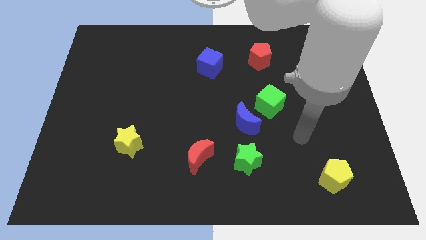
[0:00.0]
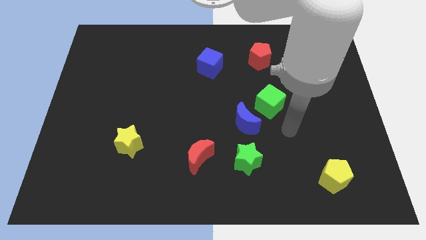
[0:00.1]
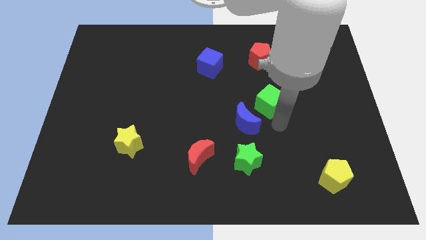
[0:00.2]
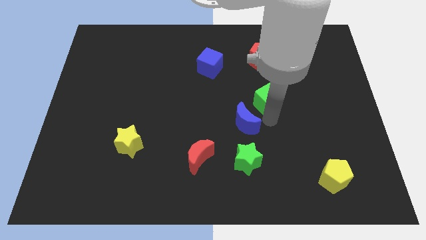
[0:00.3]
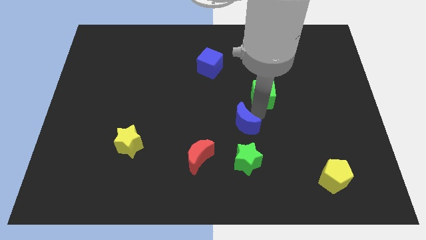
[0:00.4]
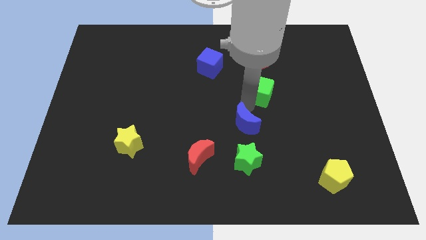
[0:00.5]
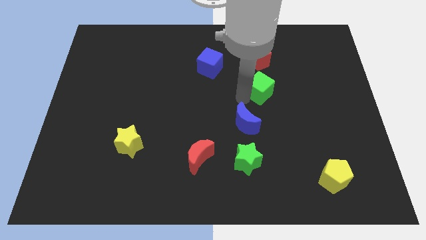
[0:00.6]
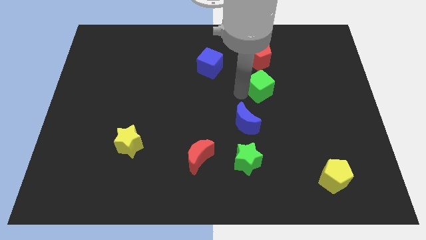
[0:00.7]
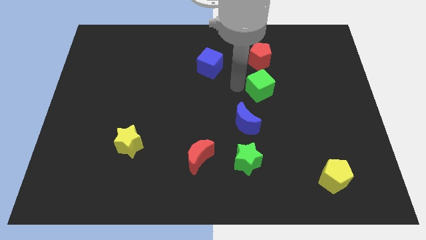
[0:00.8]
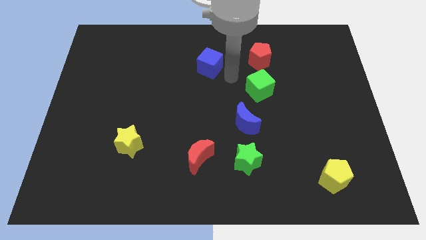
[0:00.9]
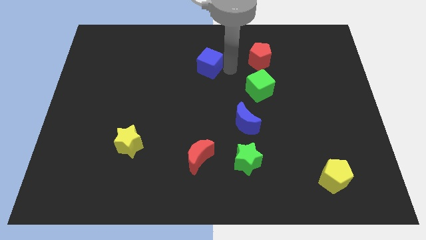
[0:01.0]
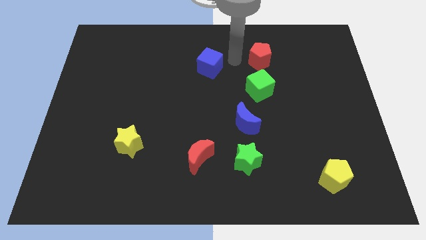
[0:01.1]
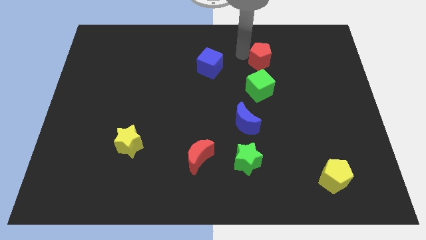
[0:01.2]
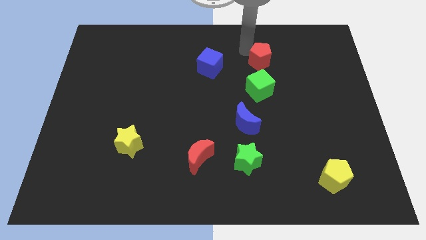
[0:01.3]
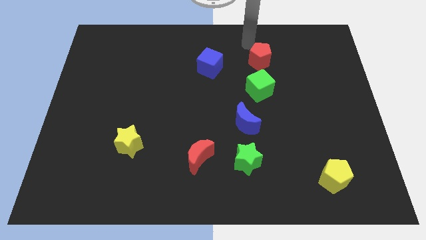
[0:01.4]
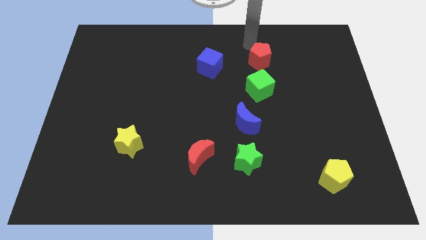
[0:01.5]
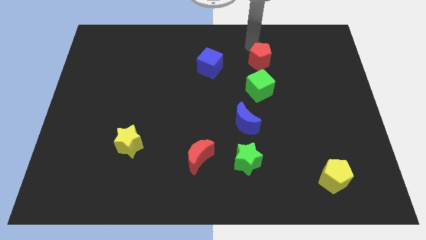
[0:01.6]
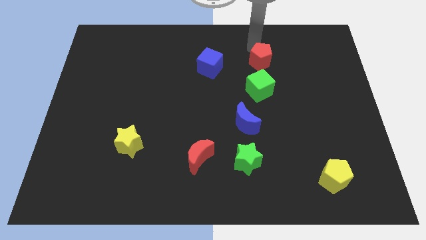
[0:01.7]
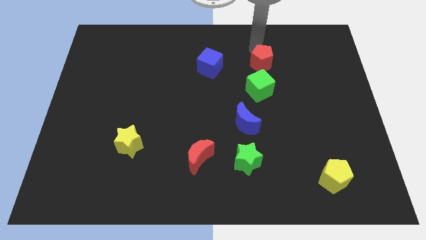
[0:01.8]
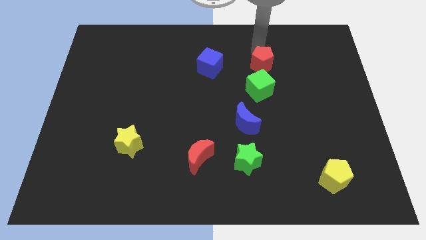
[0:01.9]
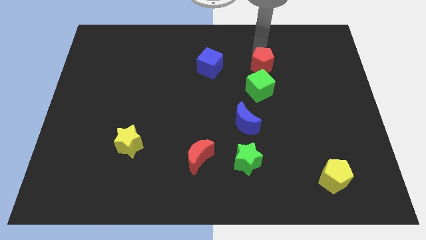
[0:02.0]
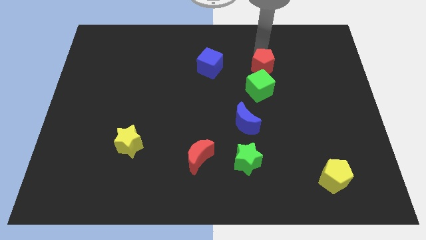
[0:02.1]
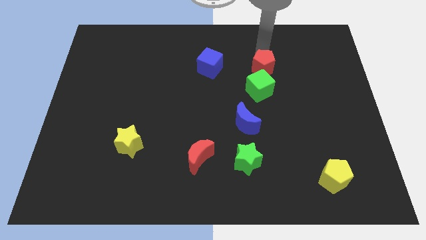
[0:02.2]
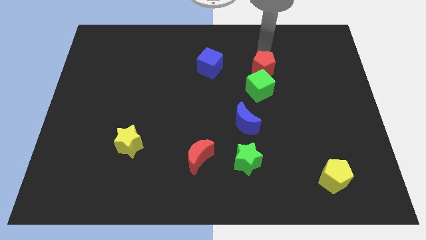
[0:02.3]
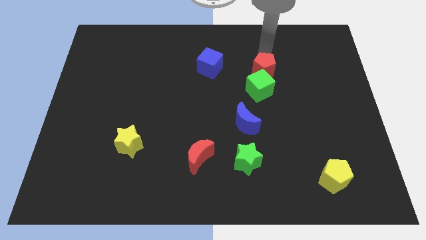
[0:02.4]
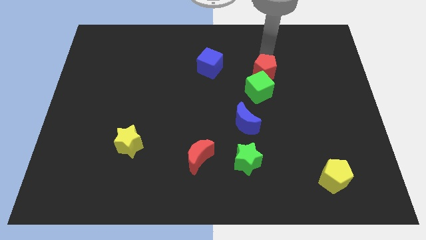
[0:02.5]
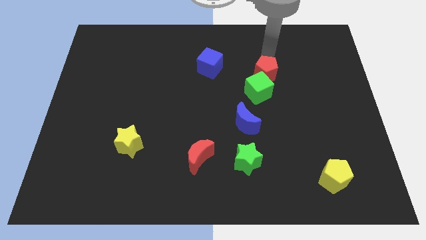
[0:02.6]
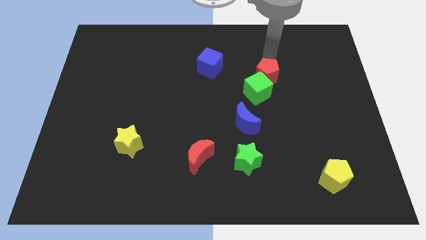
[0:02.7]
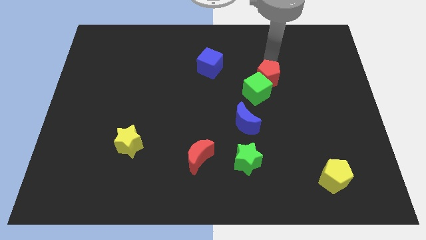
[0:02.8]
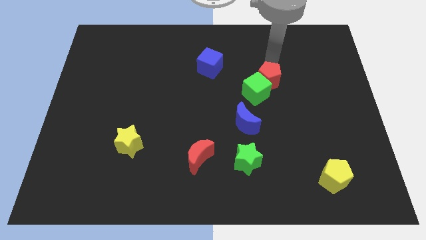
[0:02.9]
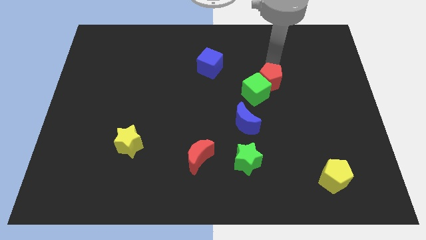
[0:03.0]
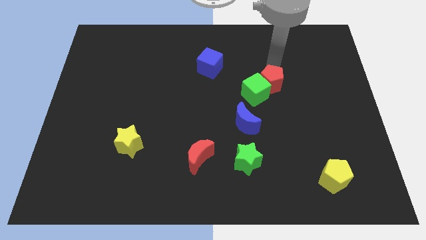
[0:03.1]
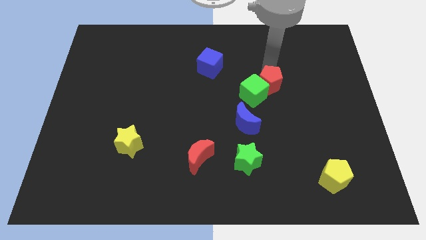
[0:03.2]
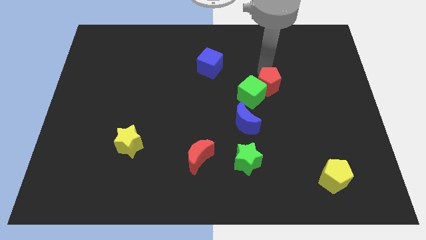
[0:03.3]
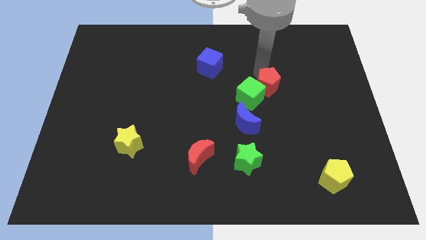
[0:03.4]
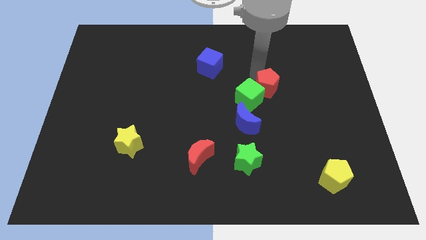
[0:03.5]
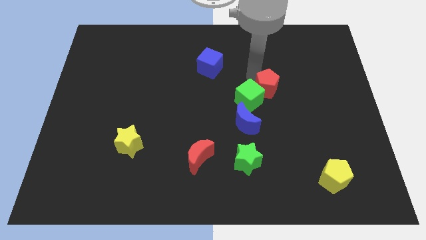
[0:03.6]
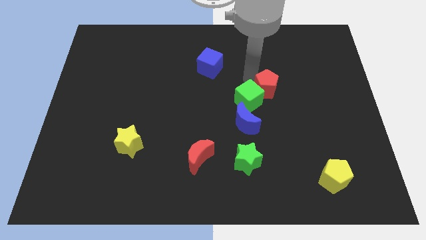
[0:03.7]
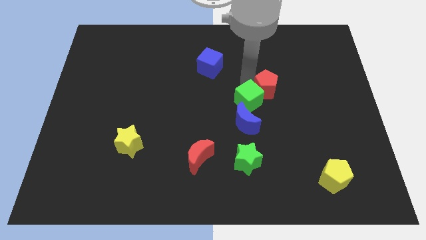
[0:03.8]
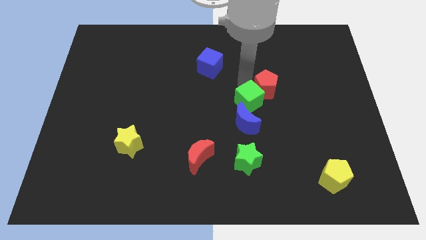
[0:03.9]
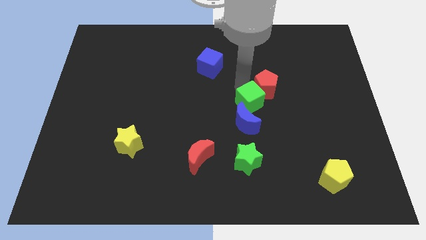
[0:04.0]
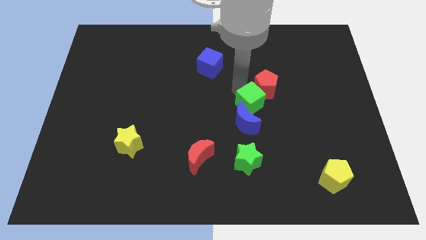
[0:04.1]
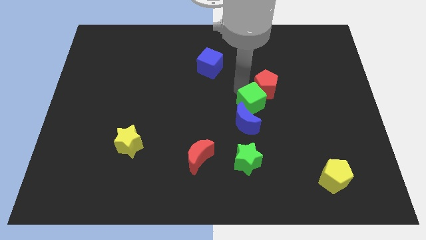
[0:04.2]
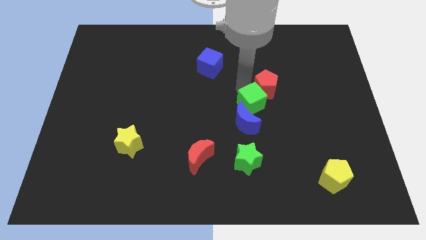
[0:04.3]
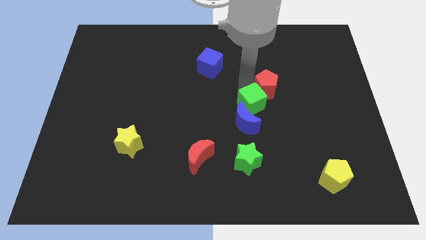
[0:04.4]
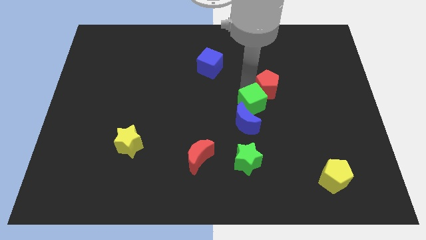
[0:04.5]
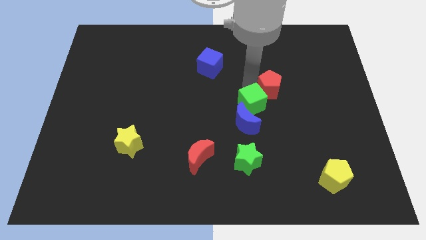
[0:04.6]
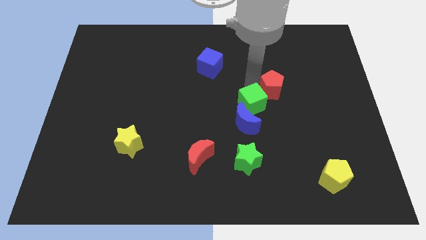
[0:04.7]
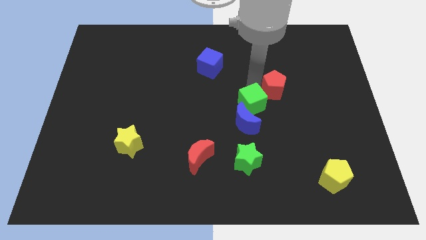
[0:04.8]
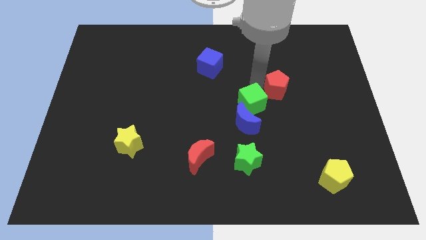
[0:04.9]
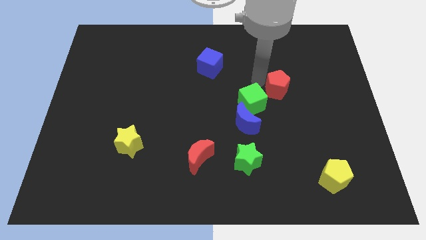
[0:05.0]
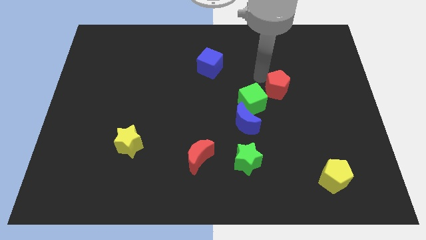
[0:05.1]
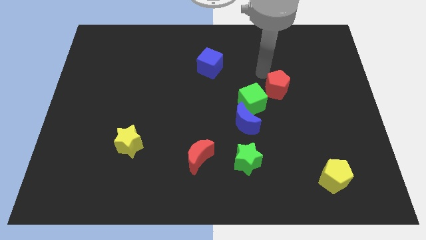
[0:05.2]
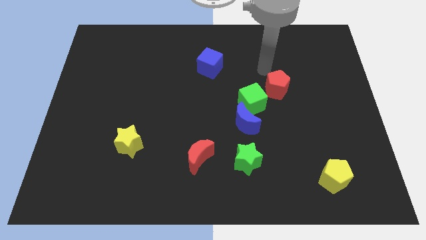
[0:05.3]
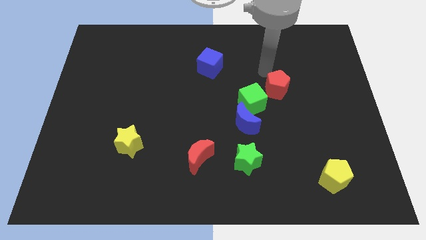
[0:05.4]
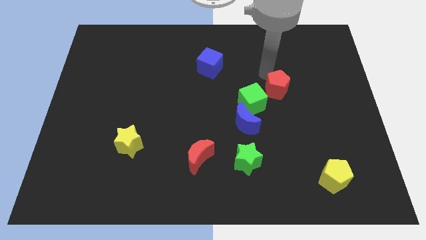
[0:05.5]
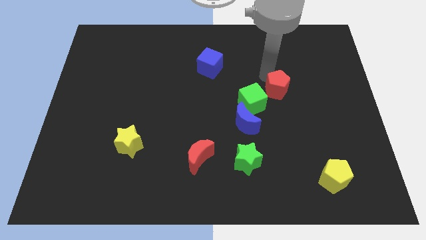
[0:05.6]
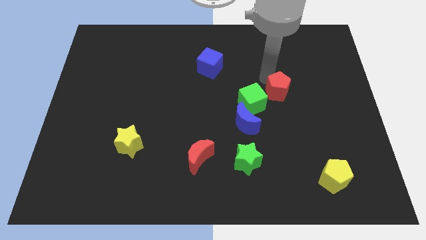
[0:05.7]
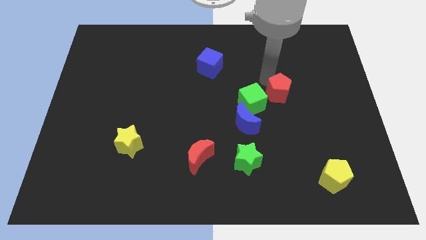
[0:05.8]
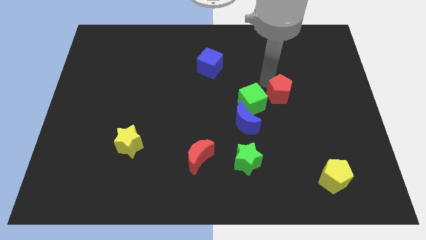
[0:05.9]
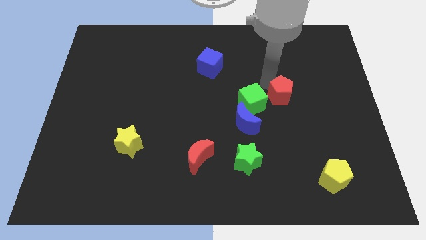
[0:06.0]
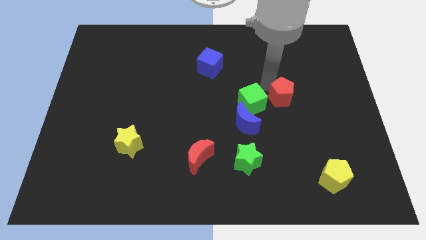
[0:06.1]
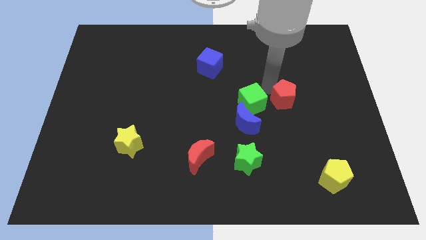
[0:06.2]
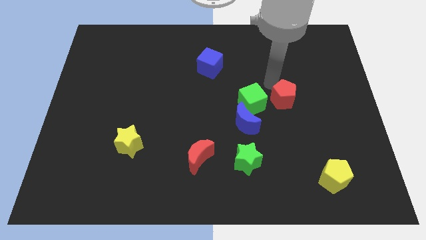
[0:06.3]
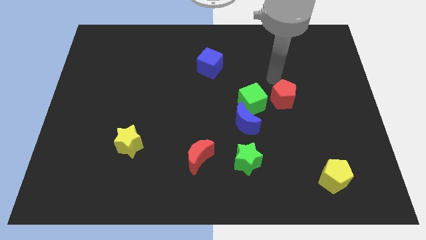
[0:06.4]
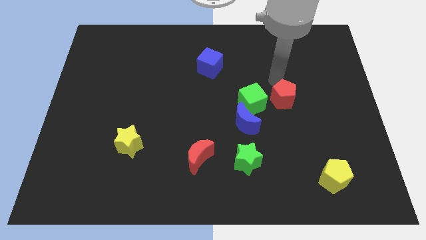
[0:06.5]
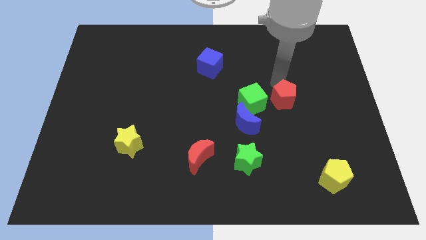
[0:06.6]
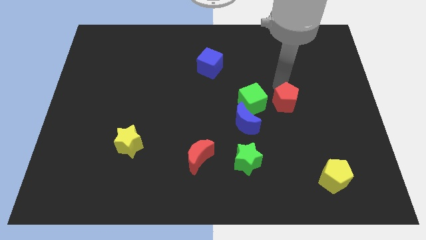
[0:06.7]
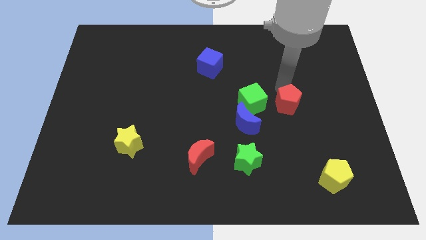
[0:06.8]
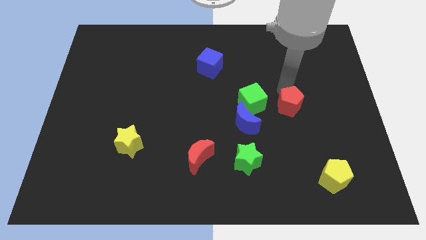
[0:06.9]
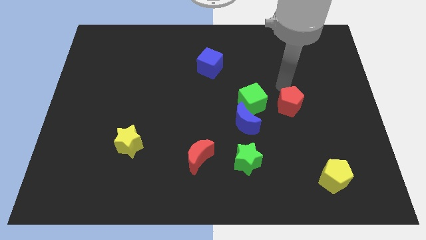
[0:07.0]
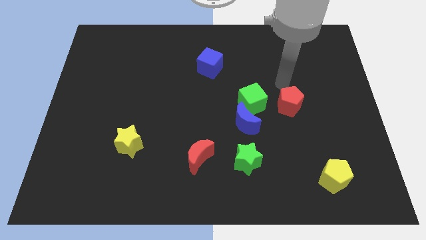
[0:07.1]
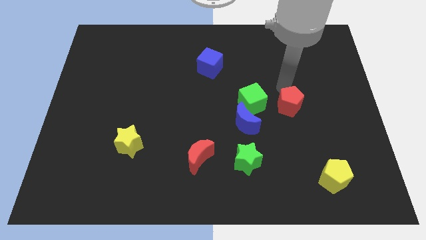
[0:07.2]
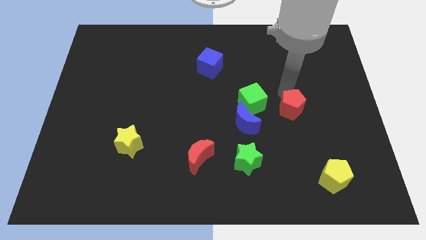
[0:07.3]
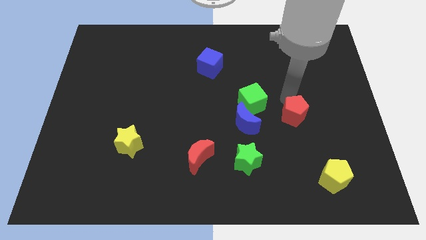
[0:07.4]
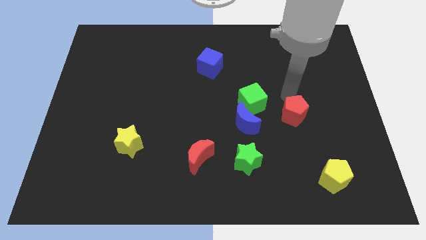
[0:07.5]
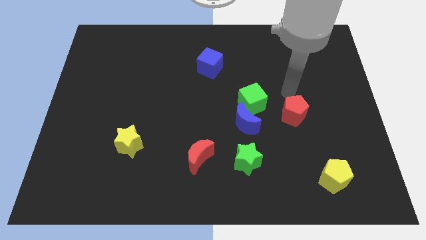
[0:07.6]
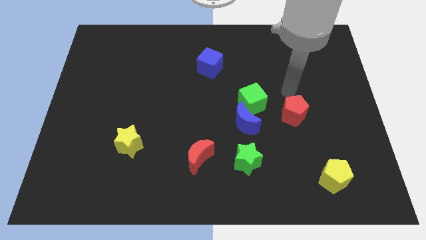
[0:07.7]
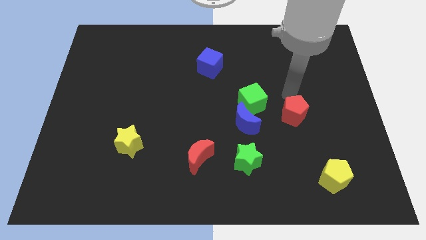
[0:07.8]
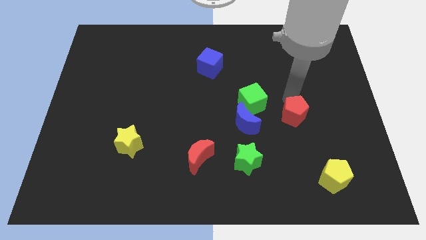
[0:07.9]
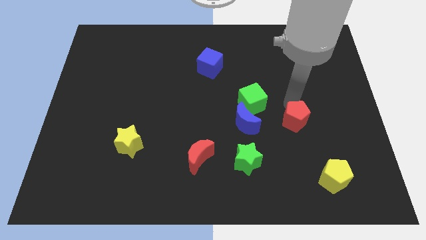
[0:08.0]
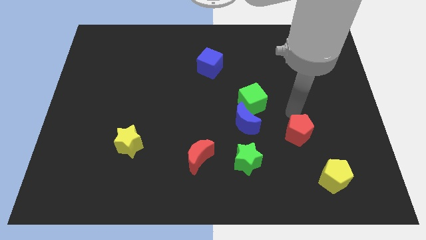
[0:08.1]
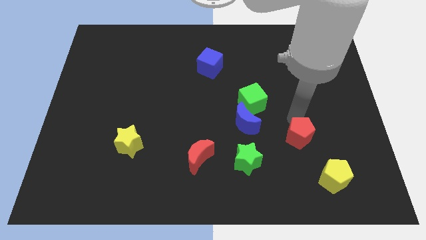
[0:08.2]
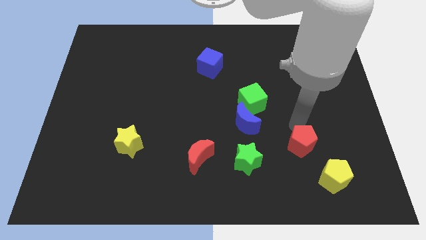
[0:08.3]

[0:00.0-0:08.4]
push the red pentagon just right of the green star
